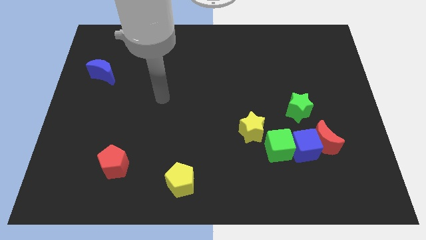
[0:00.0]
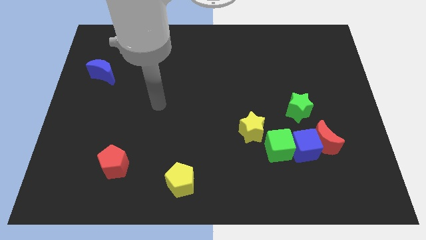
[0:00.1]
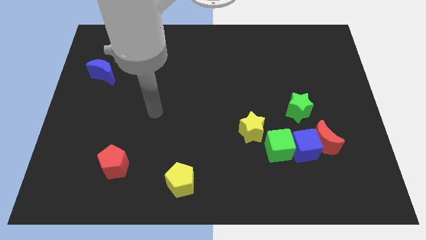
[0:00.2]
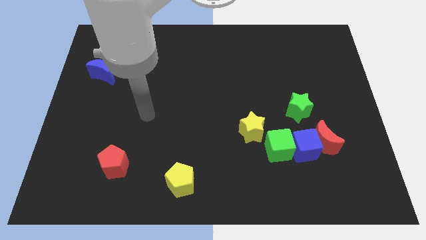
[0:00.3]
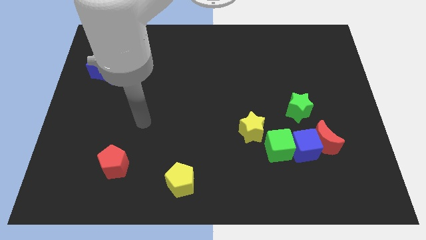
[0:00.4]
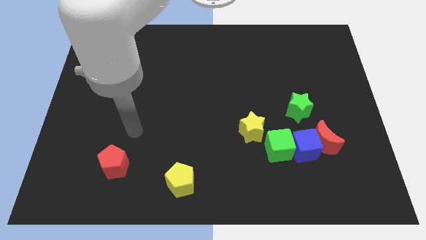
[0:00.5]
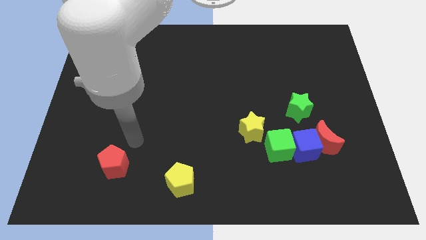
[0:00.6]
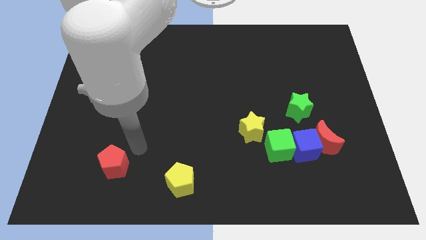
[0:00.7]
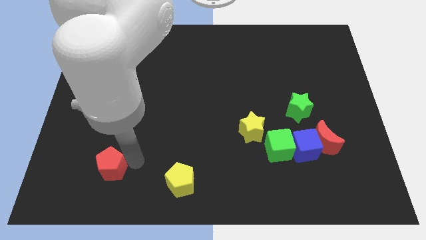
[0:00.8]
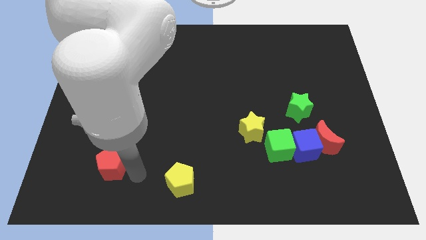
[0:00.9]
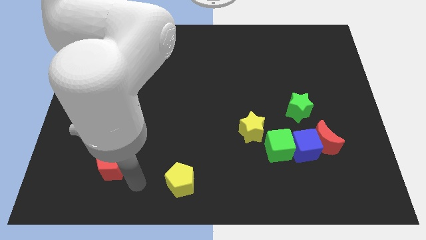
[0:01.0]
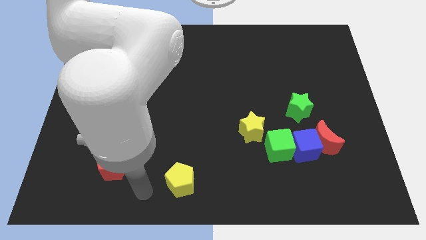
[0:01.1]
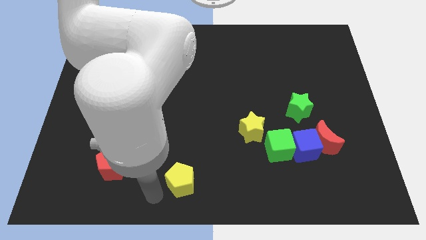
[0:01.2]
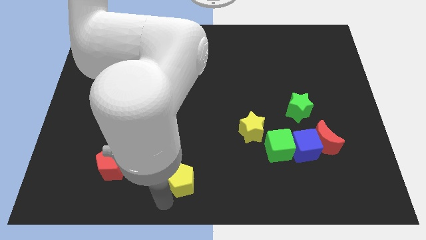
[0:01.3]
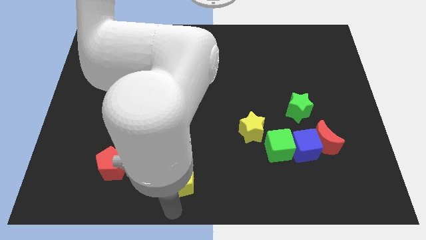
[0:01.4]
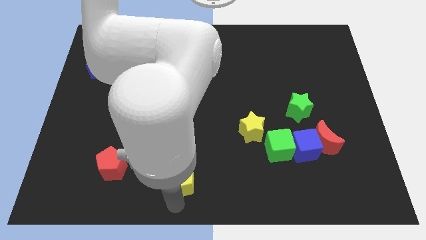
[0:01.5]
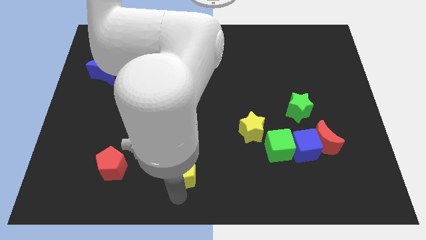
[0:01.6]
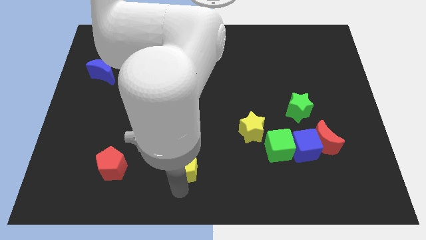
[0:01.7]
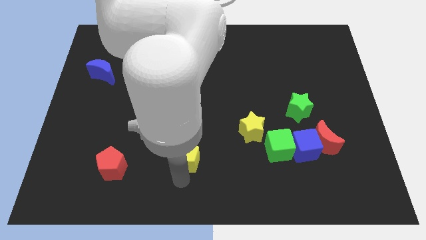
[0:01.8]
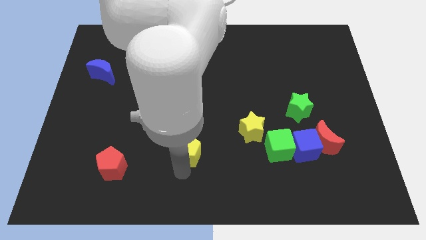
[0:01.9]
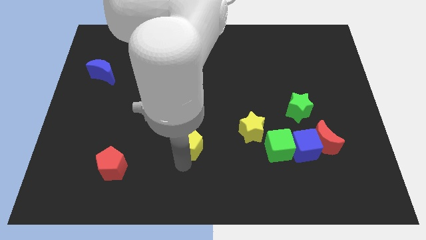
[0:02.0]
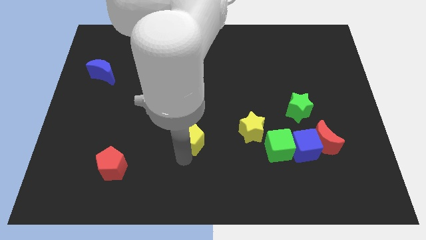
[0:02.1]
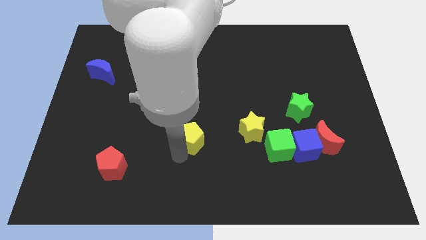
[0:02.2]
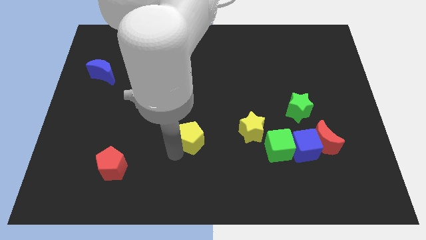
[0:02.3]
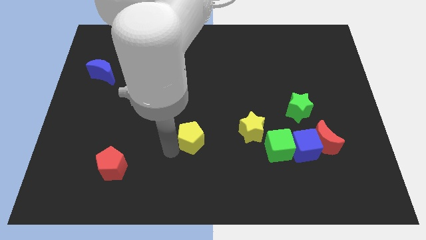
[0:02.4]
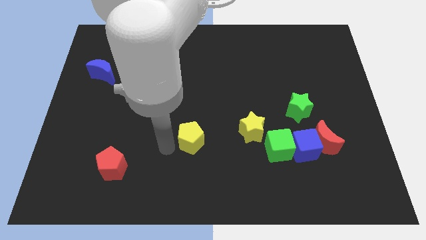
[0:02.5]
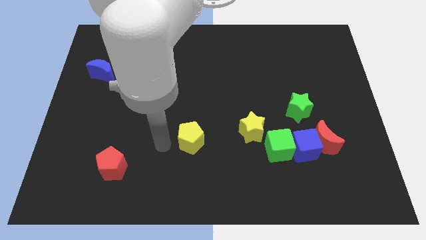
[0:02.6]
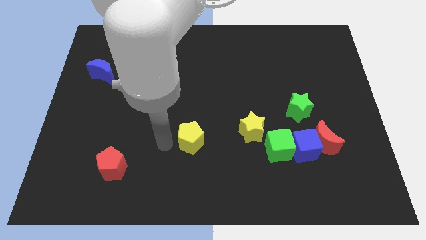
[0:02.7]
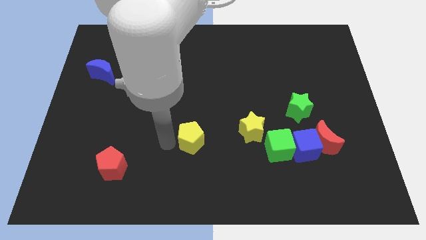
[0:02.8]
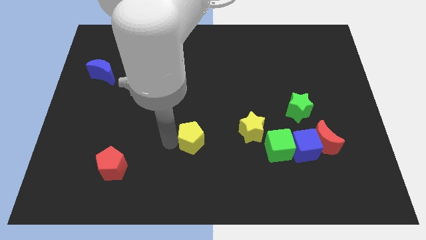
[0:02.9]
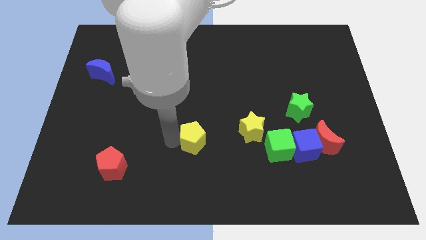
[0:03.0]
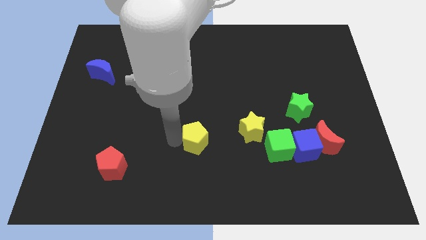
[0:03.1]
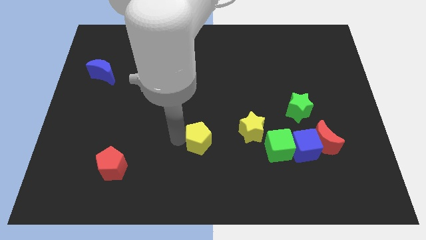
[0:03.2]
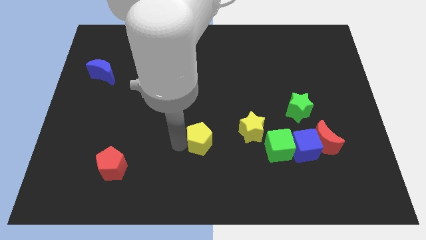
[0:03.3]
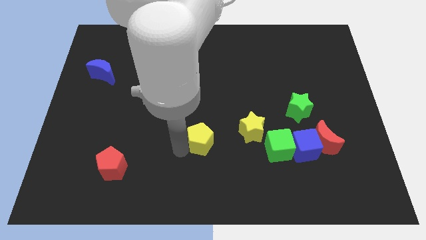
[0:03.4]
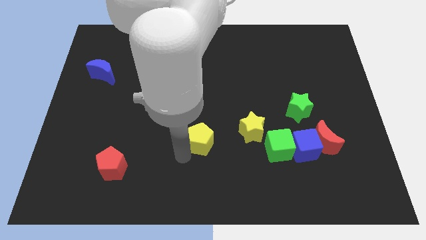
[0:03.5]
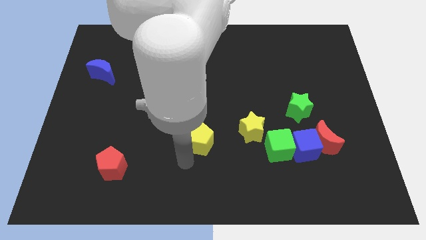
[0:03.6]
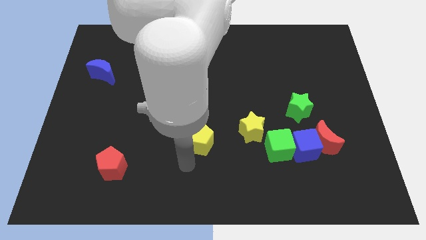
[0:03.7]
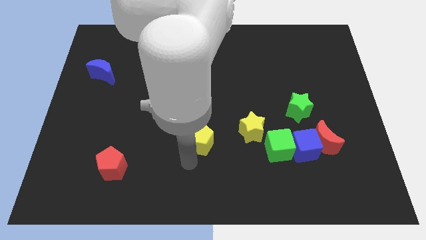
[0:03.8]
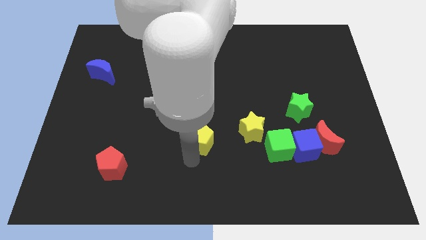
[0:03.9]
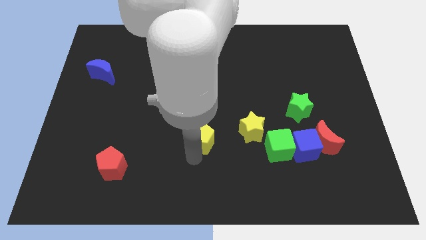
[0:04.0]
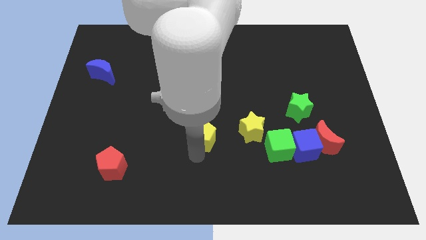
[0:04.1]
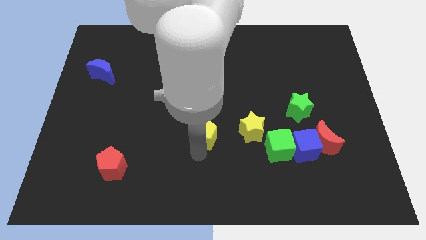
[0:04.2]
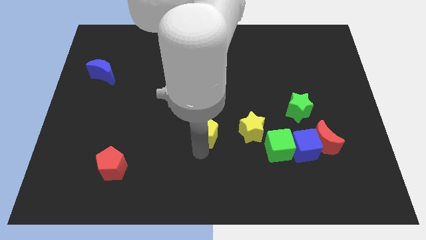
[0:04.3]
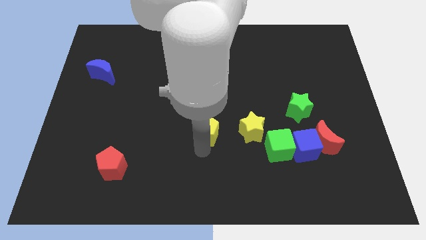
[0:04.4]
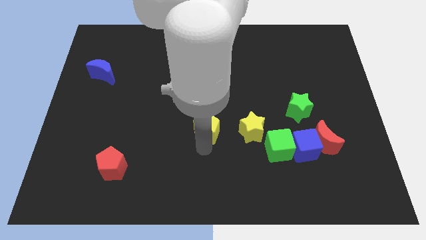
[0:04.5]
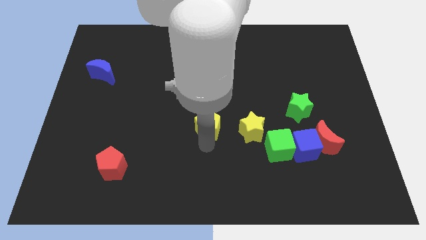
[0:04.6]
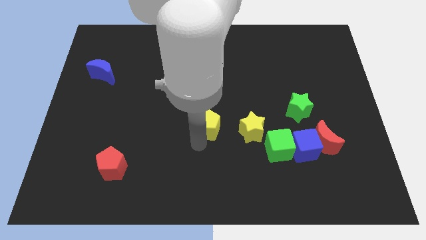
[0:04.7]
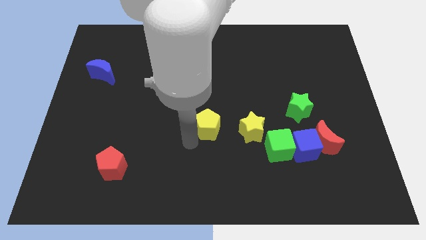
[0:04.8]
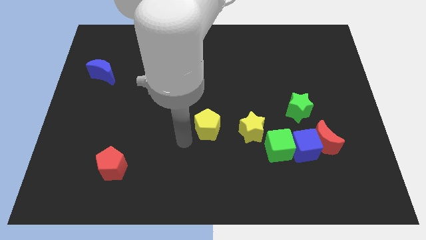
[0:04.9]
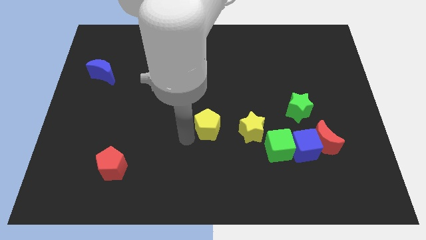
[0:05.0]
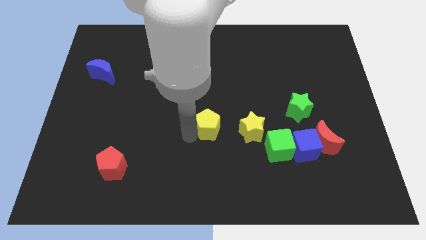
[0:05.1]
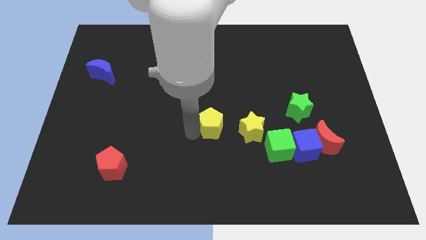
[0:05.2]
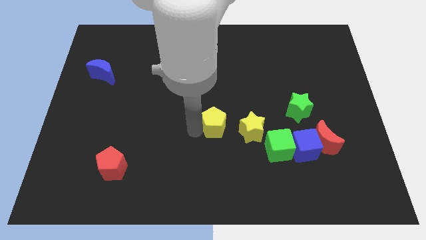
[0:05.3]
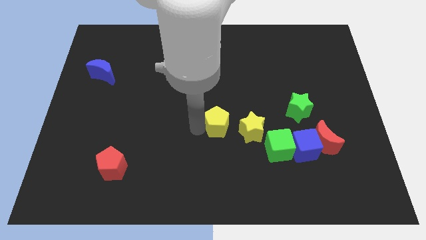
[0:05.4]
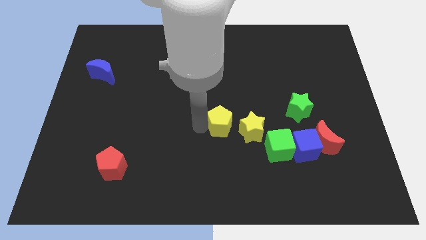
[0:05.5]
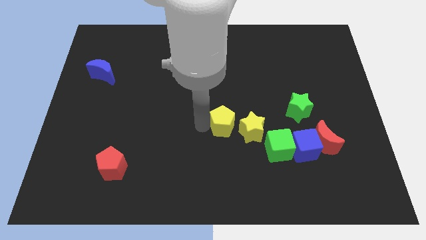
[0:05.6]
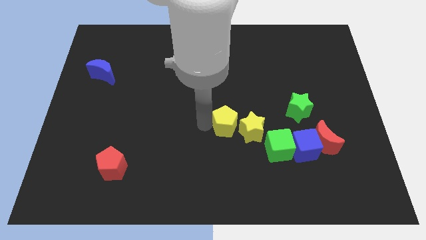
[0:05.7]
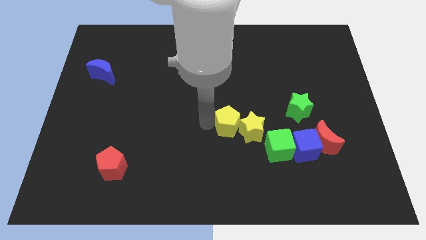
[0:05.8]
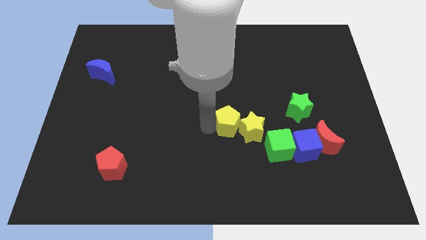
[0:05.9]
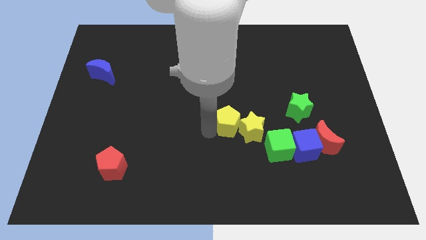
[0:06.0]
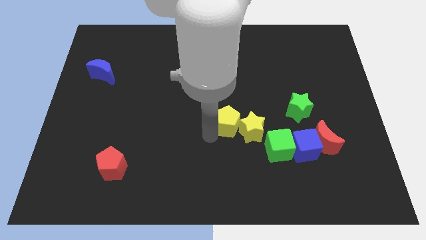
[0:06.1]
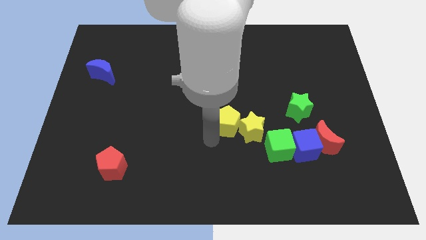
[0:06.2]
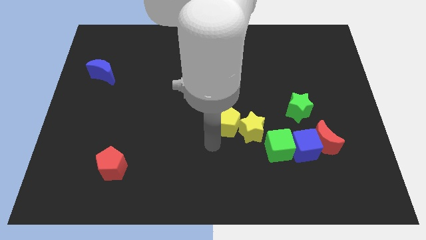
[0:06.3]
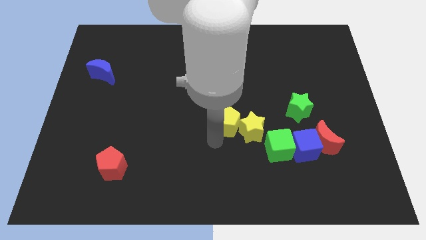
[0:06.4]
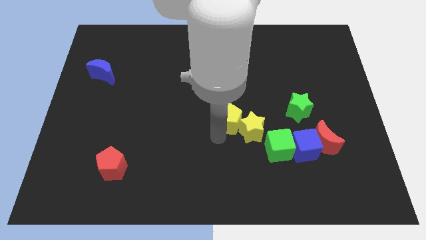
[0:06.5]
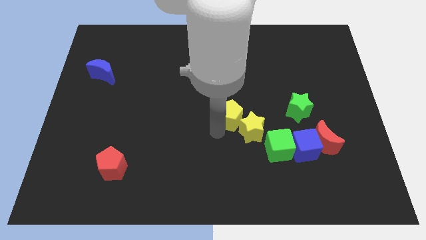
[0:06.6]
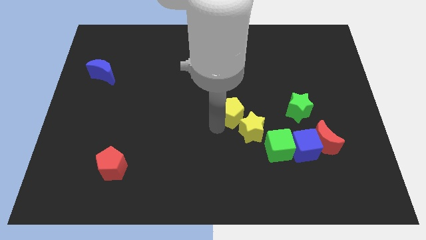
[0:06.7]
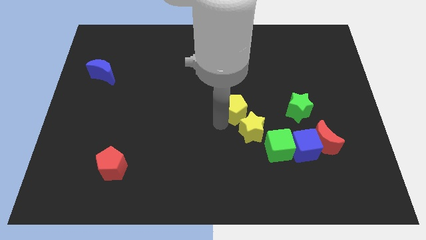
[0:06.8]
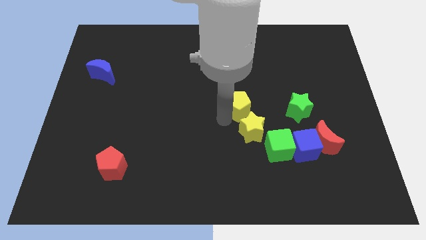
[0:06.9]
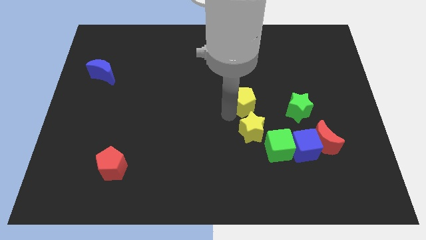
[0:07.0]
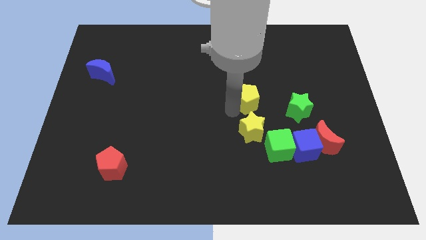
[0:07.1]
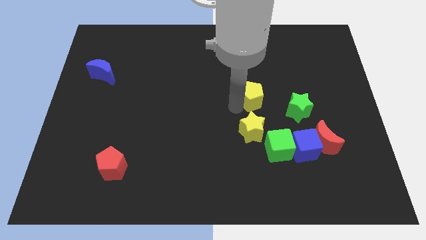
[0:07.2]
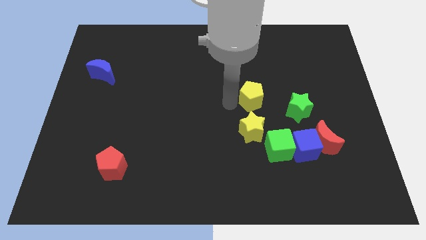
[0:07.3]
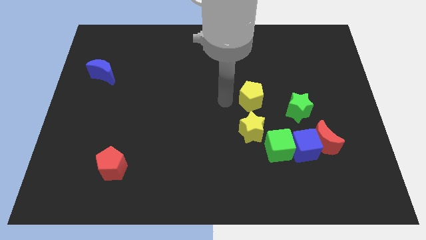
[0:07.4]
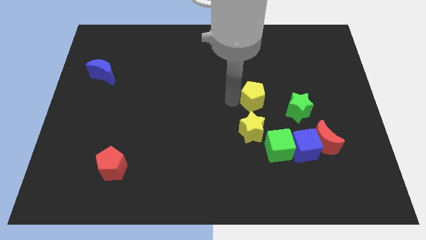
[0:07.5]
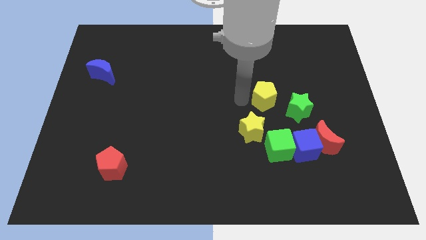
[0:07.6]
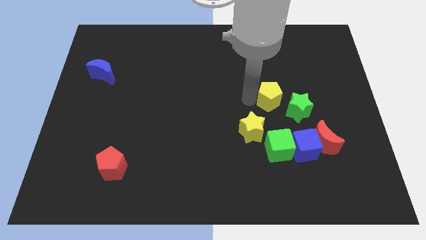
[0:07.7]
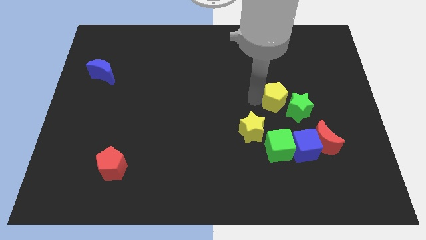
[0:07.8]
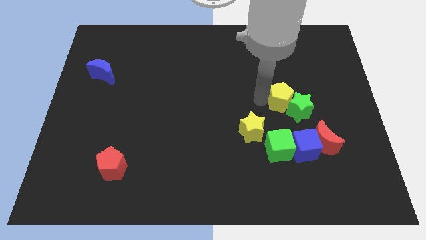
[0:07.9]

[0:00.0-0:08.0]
put the yellow pentagon above the blue cube
